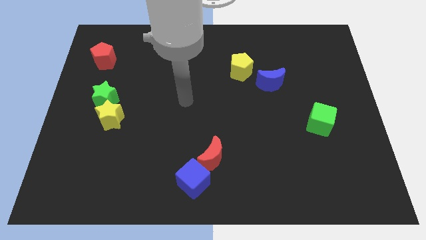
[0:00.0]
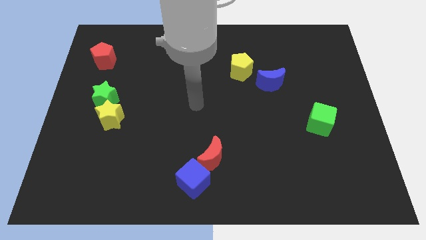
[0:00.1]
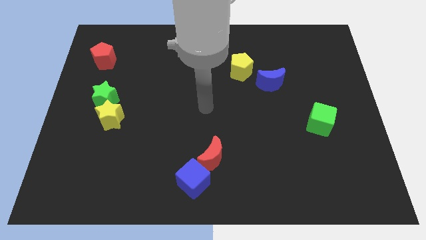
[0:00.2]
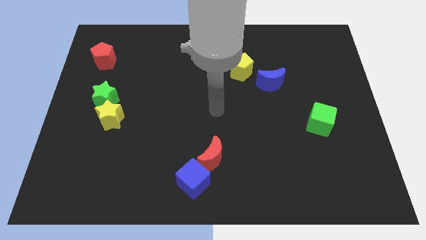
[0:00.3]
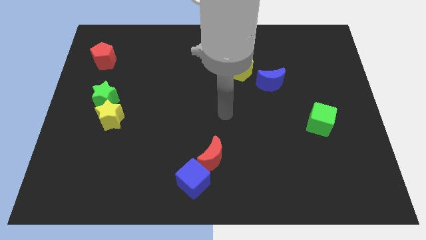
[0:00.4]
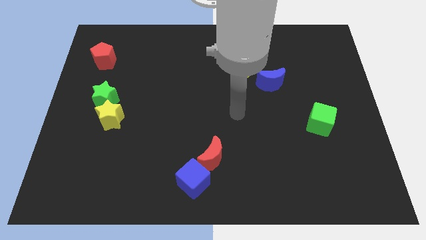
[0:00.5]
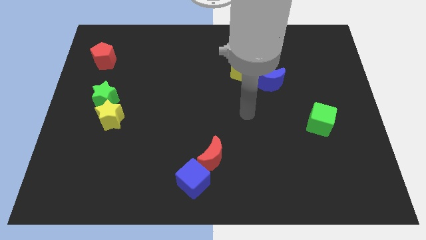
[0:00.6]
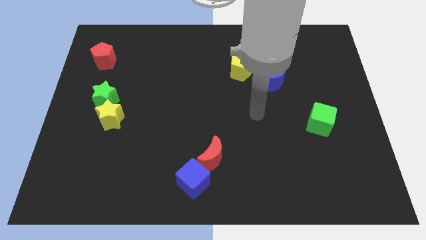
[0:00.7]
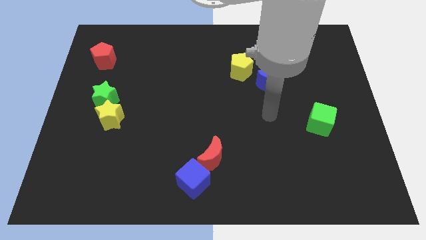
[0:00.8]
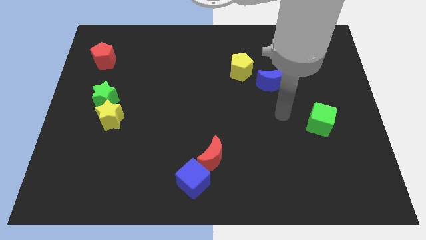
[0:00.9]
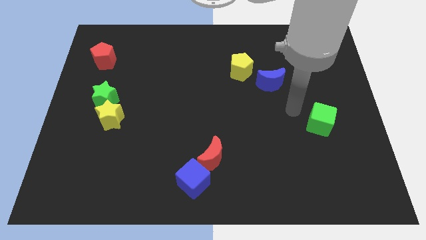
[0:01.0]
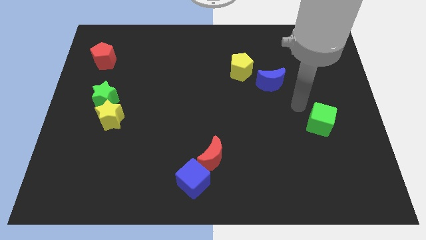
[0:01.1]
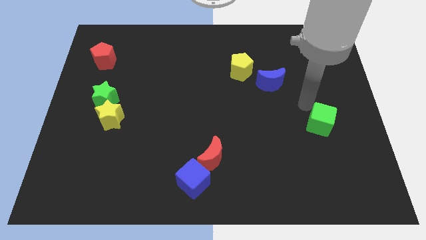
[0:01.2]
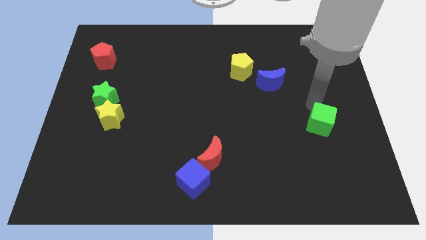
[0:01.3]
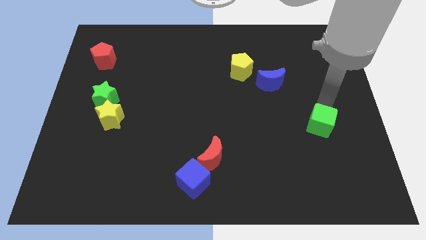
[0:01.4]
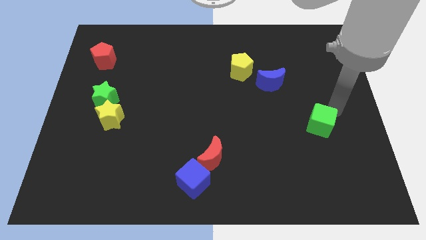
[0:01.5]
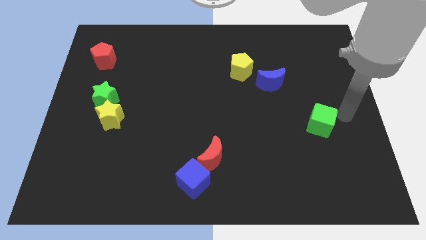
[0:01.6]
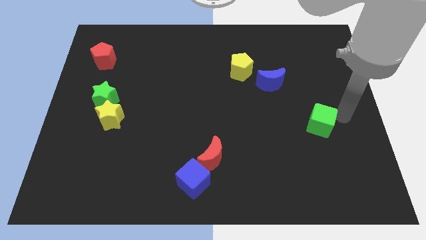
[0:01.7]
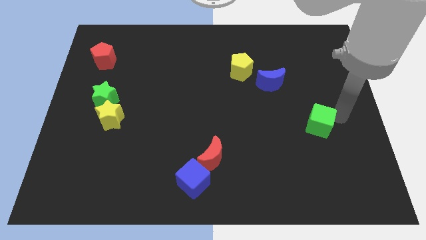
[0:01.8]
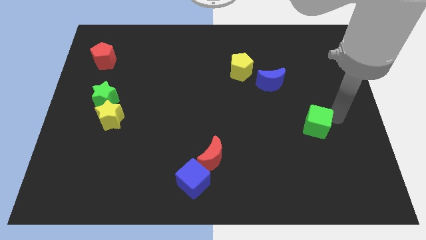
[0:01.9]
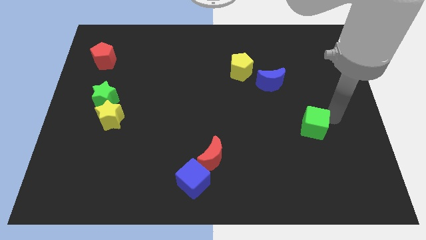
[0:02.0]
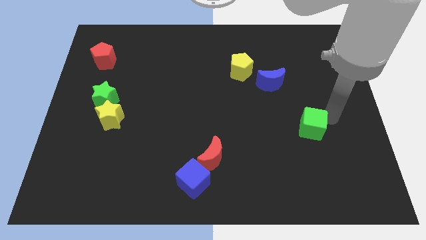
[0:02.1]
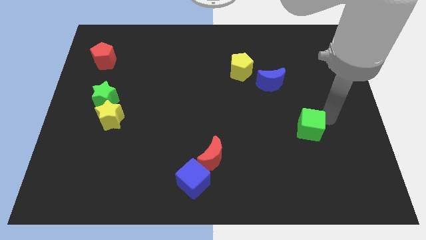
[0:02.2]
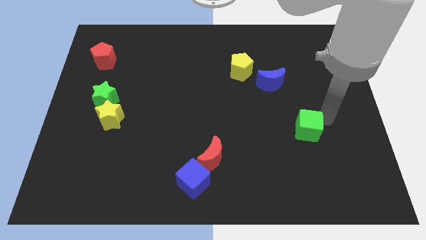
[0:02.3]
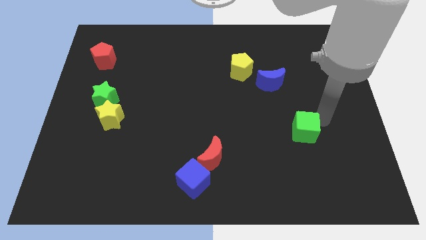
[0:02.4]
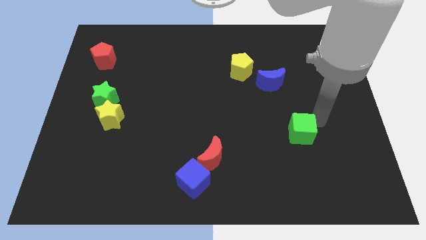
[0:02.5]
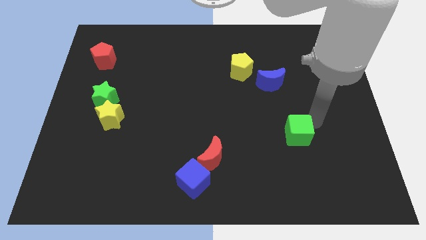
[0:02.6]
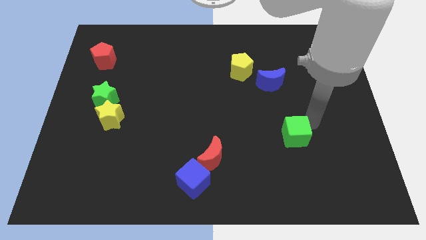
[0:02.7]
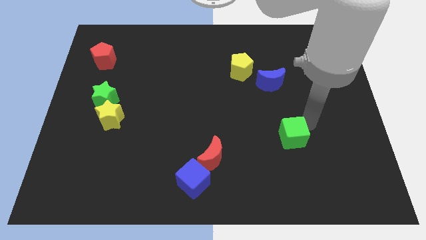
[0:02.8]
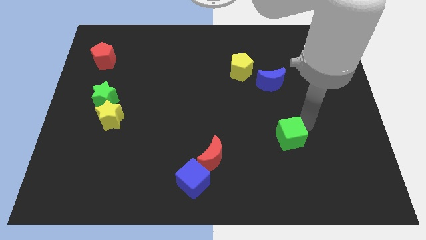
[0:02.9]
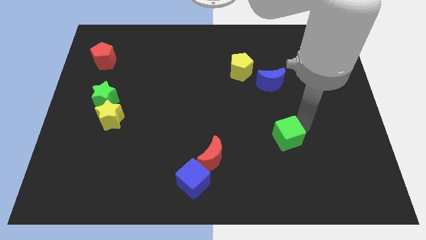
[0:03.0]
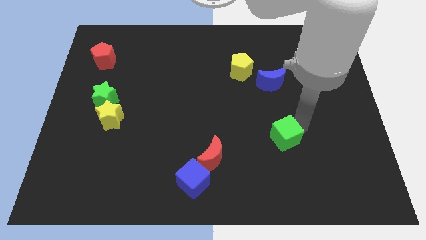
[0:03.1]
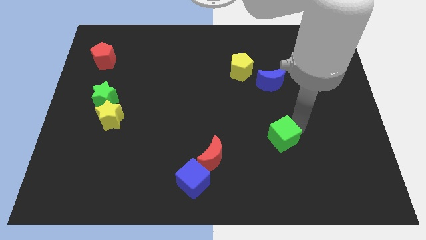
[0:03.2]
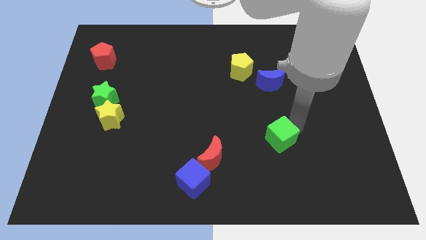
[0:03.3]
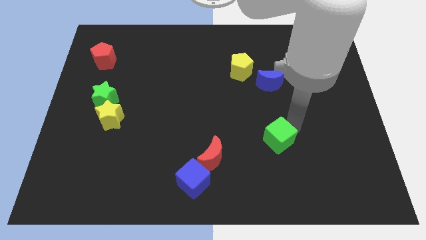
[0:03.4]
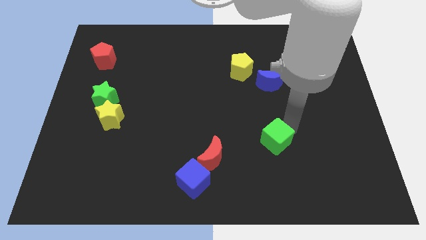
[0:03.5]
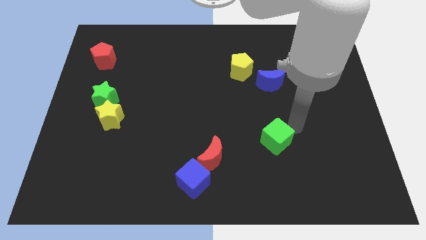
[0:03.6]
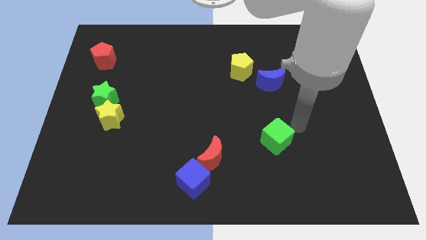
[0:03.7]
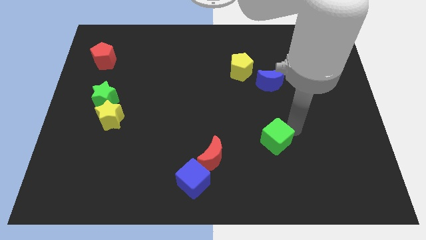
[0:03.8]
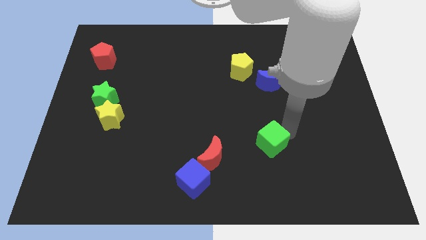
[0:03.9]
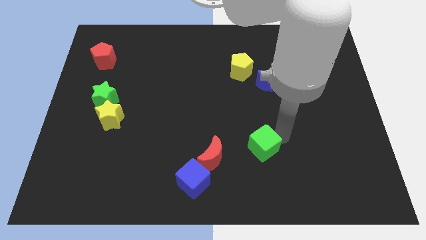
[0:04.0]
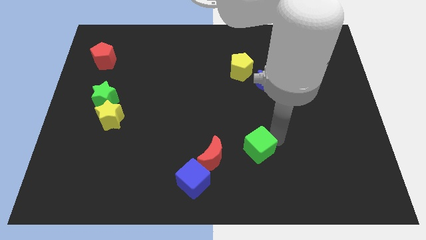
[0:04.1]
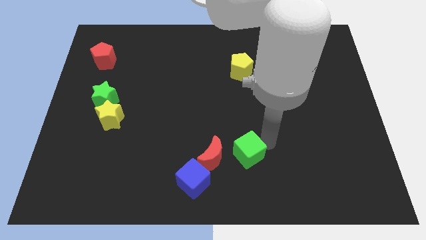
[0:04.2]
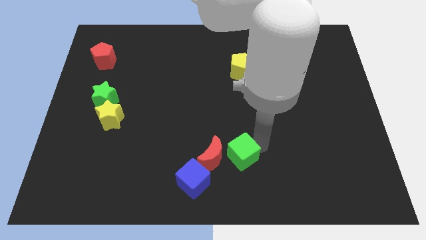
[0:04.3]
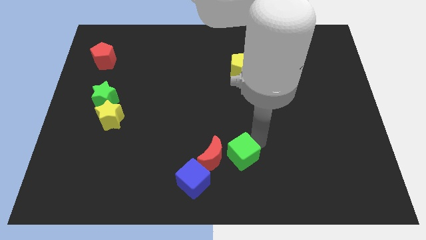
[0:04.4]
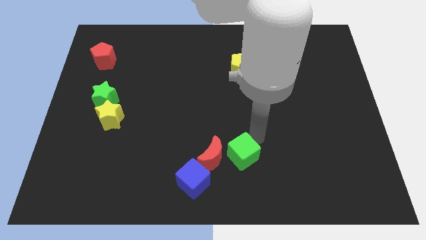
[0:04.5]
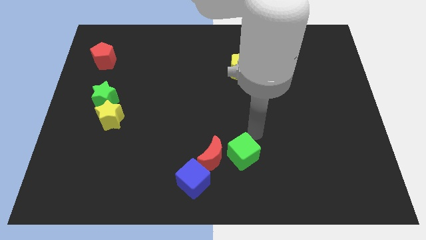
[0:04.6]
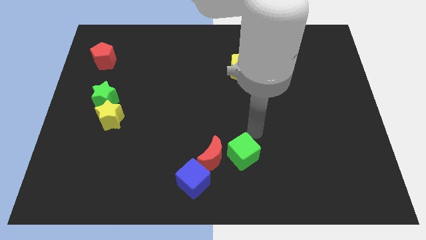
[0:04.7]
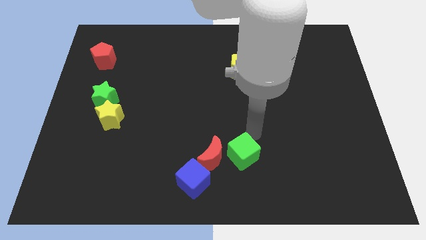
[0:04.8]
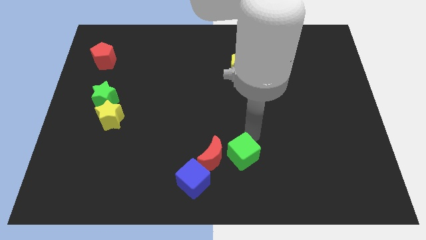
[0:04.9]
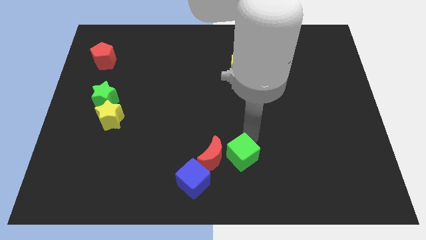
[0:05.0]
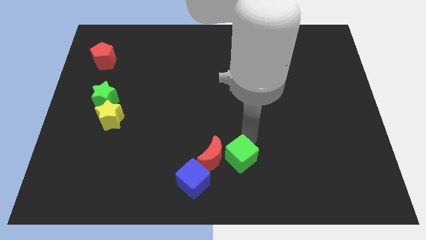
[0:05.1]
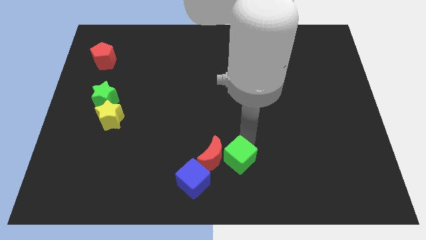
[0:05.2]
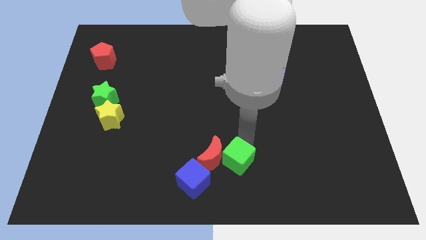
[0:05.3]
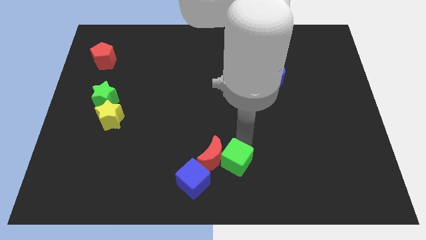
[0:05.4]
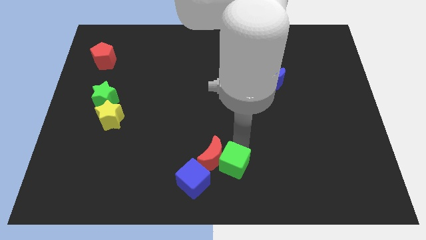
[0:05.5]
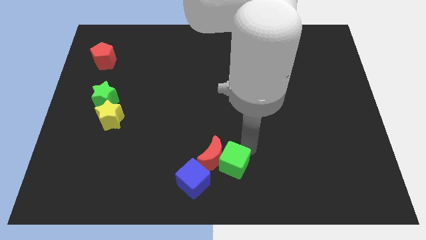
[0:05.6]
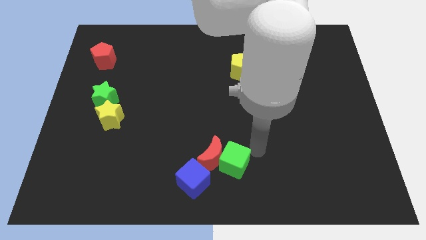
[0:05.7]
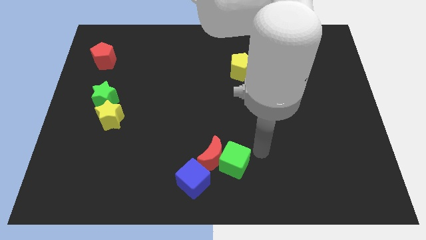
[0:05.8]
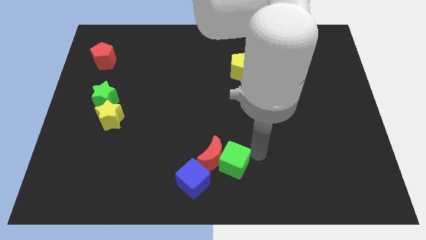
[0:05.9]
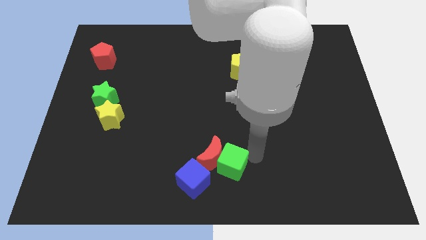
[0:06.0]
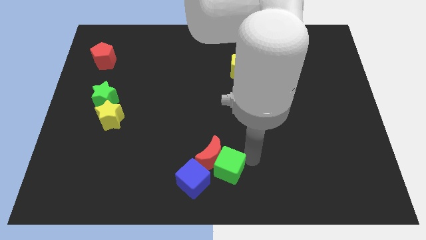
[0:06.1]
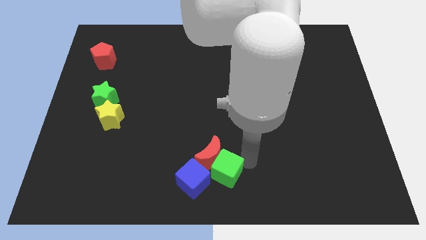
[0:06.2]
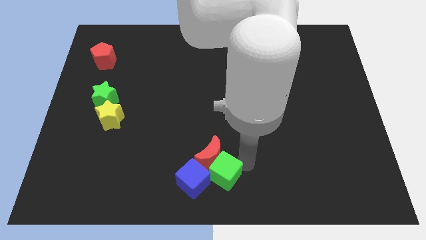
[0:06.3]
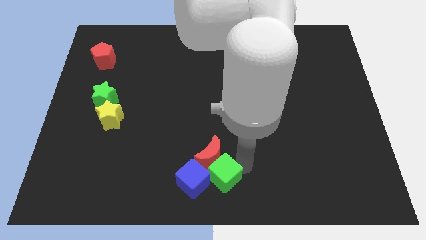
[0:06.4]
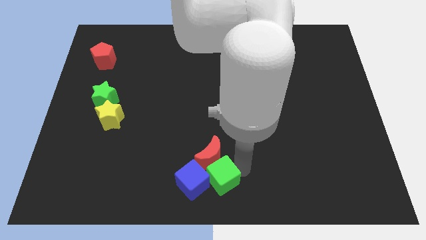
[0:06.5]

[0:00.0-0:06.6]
move the green cube towards the blue cube

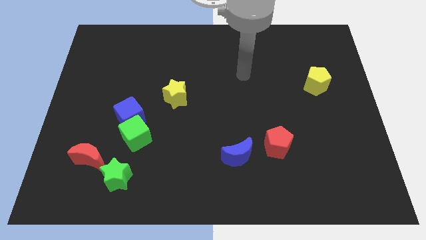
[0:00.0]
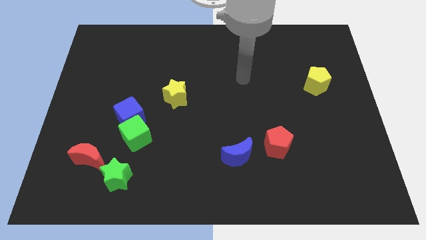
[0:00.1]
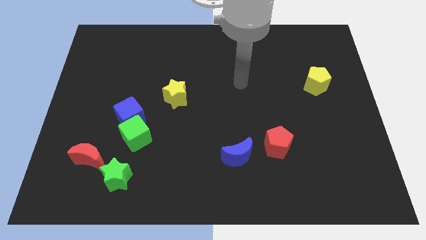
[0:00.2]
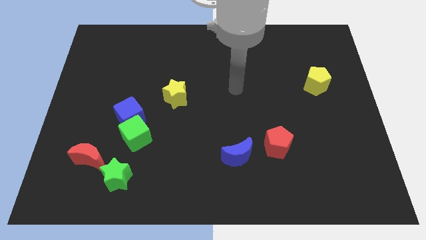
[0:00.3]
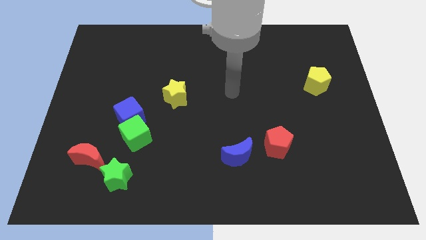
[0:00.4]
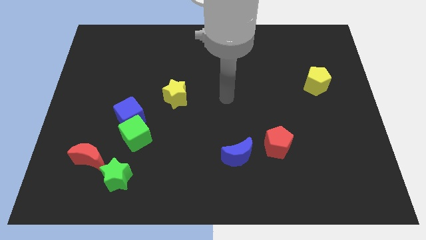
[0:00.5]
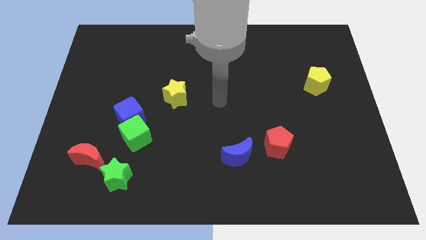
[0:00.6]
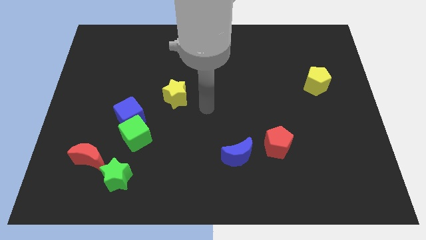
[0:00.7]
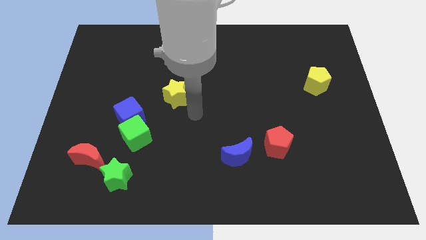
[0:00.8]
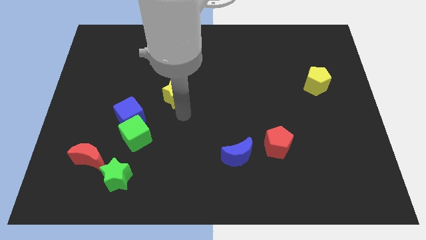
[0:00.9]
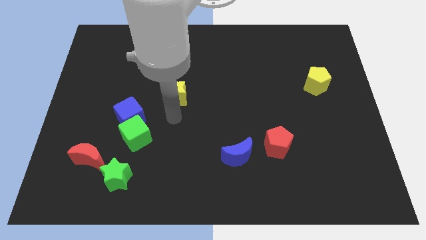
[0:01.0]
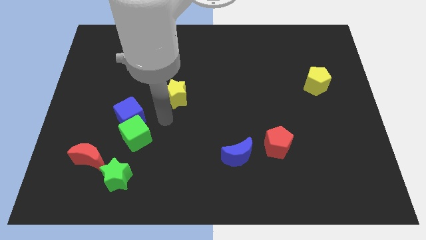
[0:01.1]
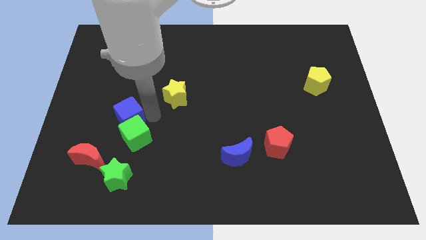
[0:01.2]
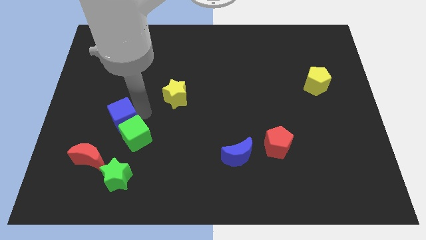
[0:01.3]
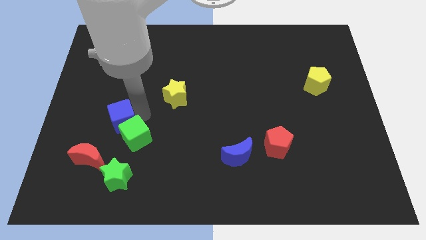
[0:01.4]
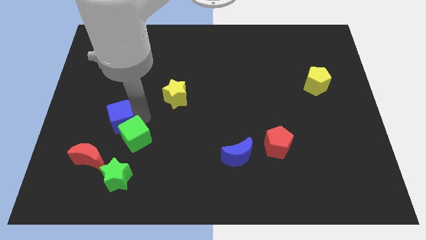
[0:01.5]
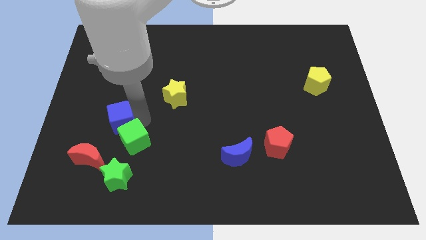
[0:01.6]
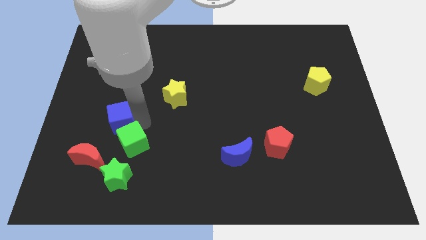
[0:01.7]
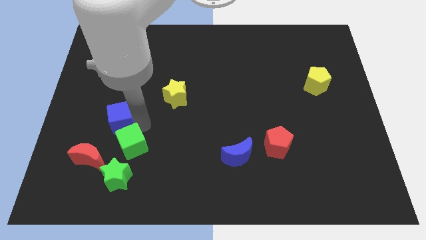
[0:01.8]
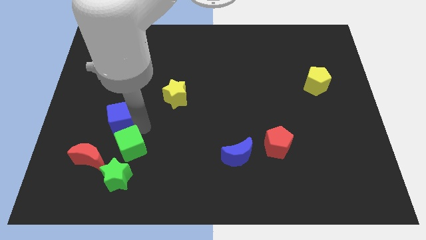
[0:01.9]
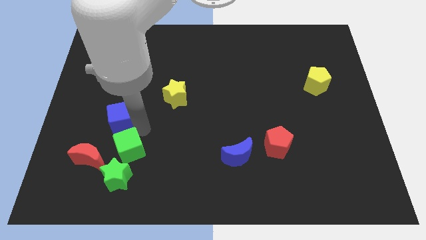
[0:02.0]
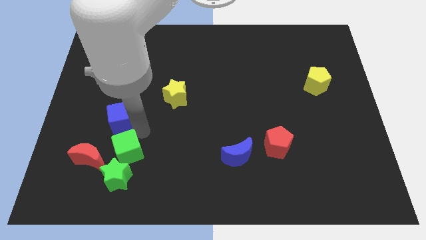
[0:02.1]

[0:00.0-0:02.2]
push the green cube close to the green star
